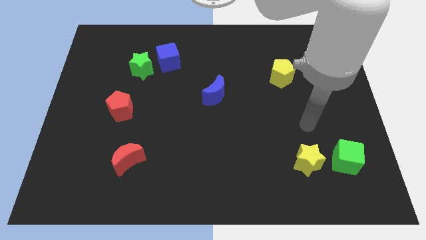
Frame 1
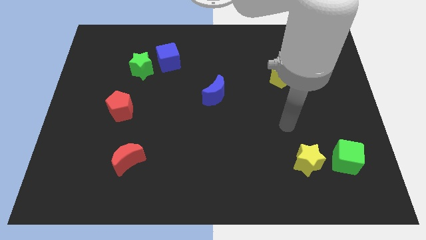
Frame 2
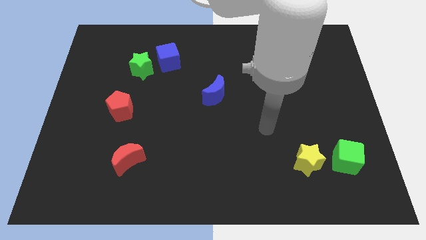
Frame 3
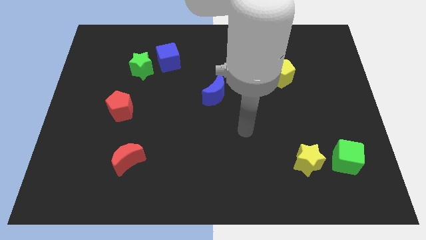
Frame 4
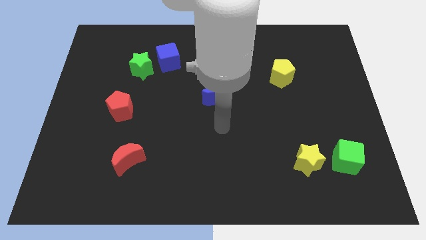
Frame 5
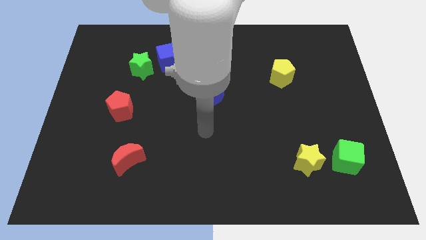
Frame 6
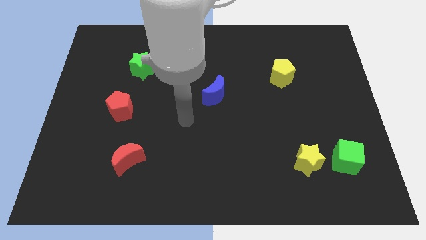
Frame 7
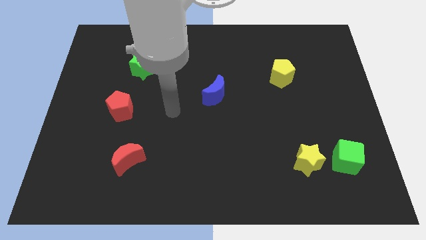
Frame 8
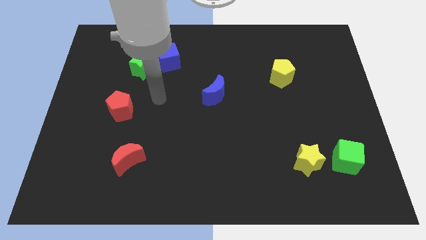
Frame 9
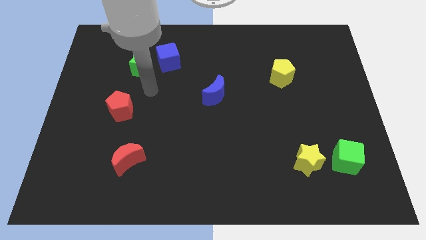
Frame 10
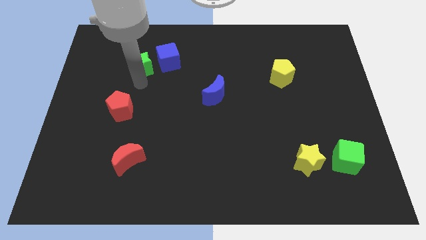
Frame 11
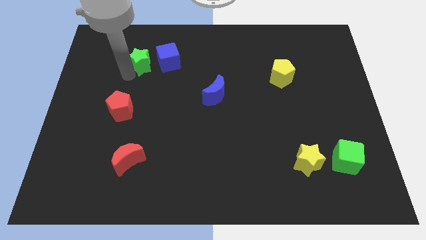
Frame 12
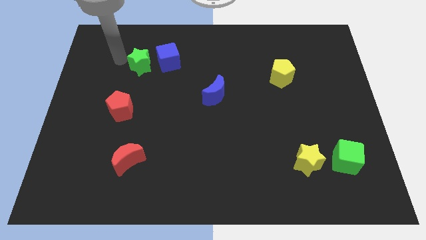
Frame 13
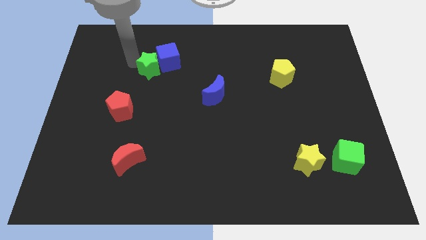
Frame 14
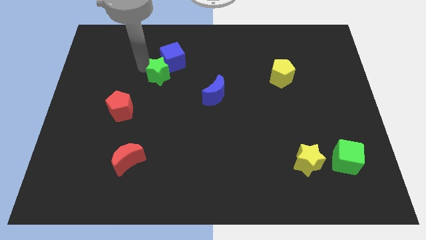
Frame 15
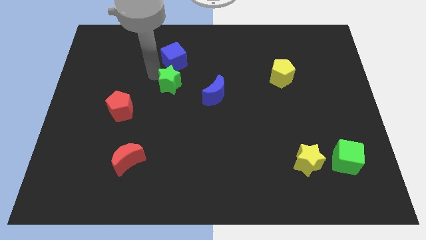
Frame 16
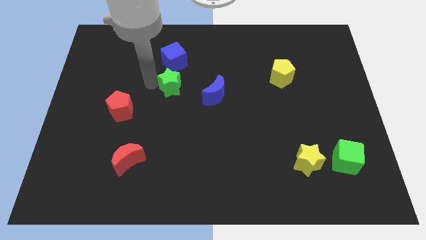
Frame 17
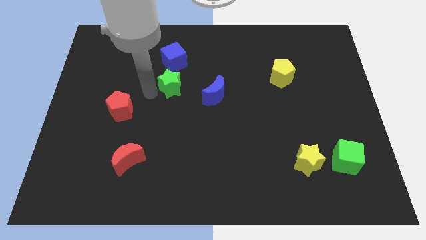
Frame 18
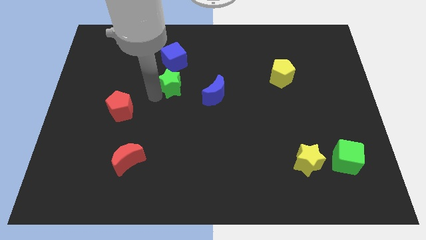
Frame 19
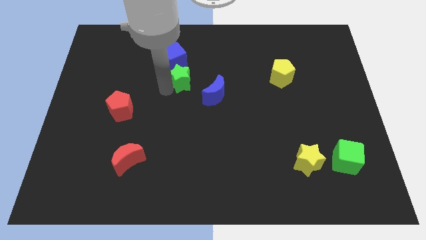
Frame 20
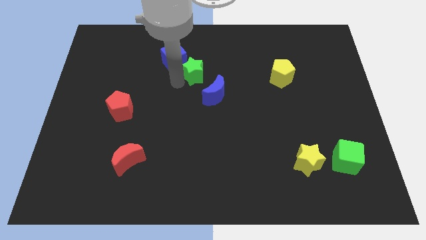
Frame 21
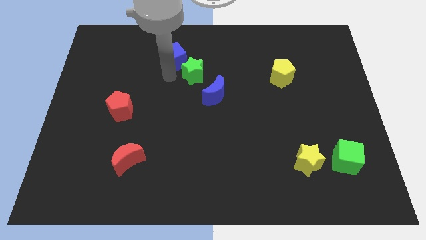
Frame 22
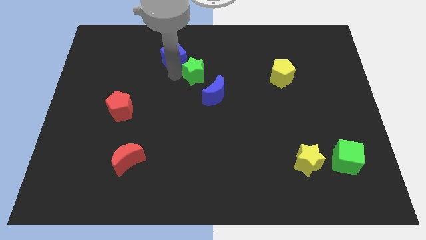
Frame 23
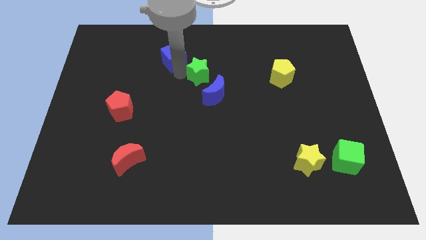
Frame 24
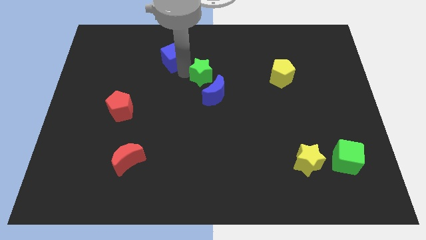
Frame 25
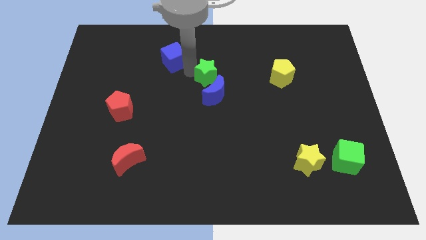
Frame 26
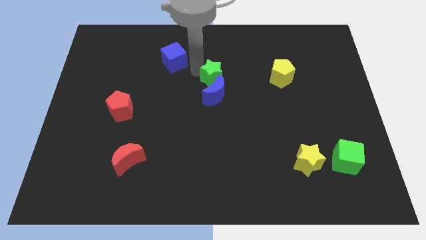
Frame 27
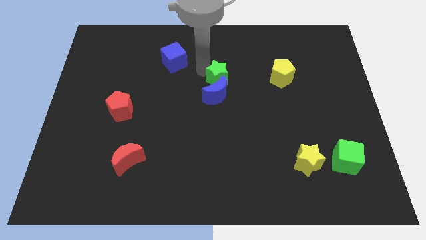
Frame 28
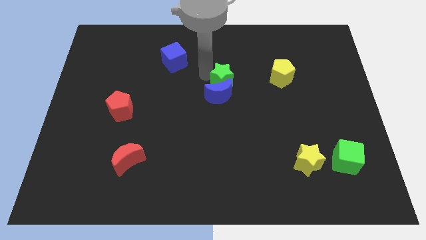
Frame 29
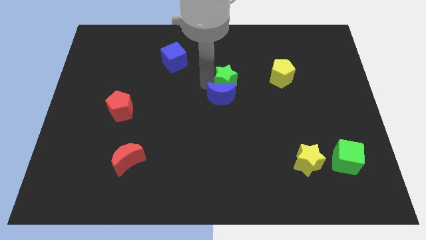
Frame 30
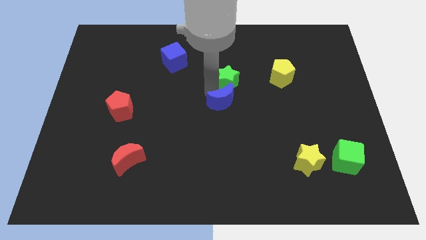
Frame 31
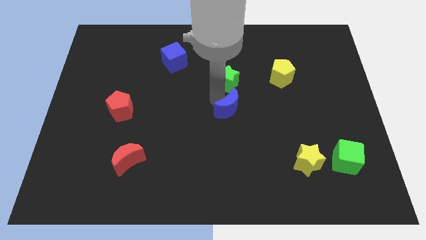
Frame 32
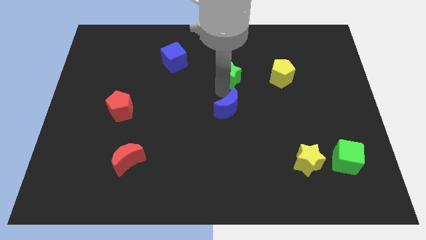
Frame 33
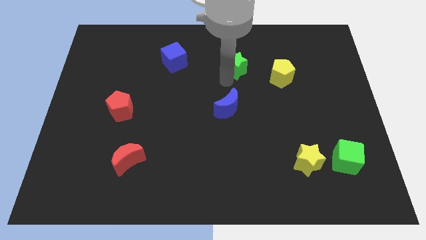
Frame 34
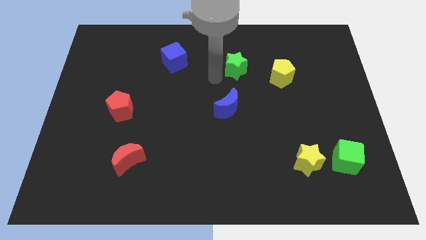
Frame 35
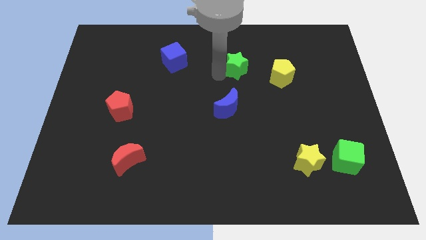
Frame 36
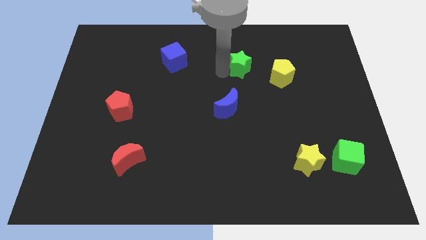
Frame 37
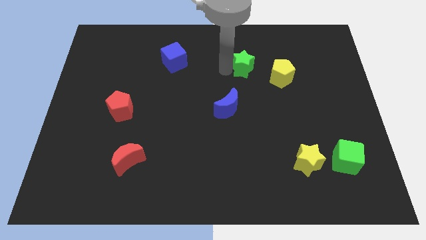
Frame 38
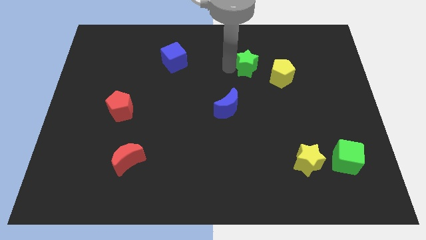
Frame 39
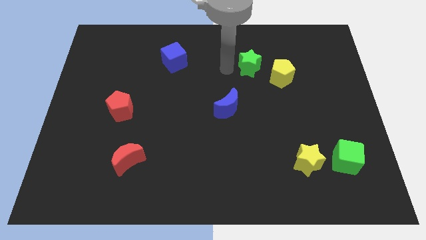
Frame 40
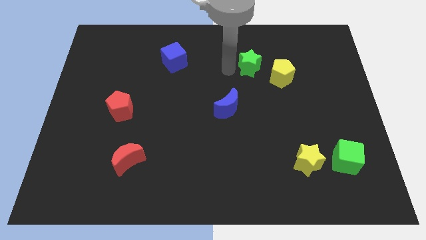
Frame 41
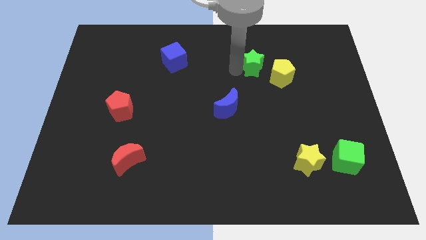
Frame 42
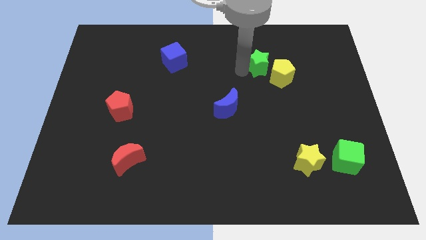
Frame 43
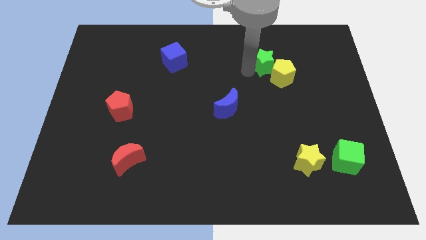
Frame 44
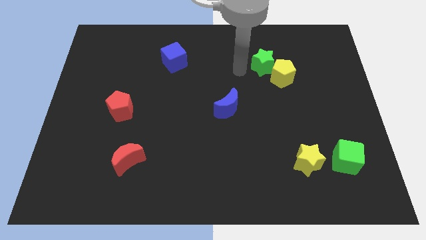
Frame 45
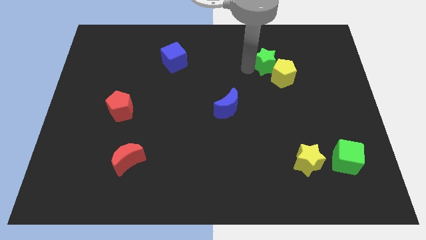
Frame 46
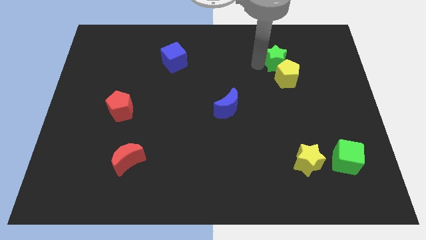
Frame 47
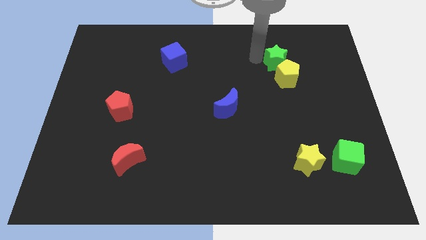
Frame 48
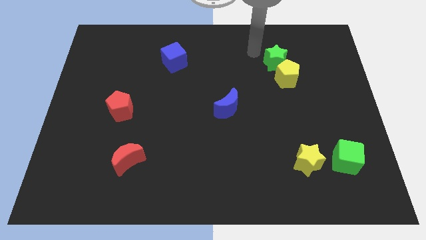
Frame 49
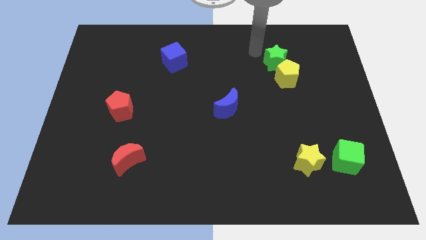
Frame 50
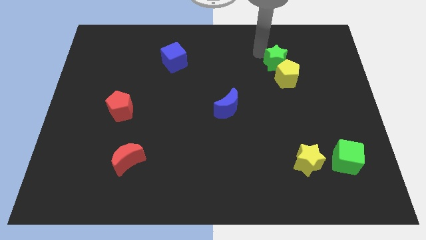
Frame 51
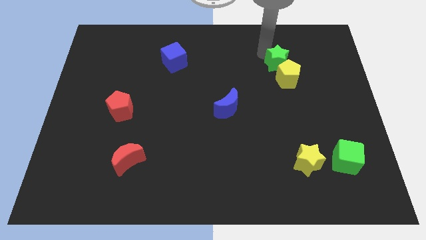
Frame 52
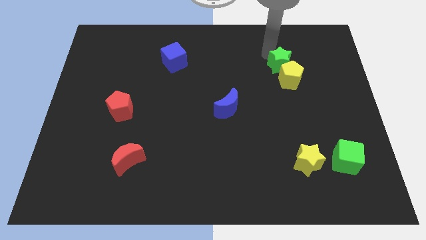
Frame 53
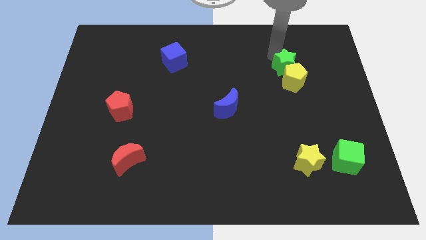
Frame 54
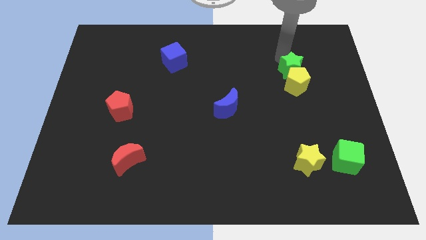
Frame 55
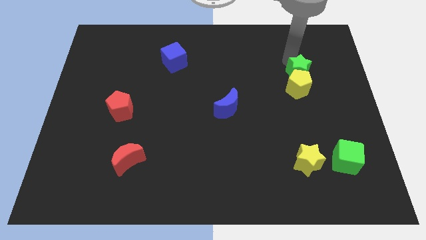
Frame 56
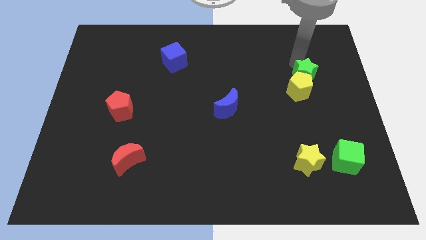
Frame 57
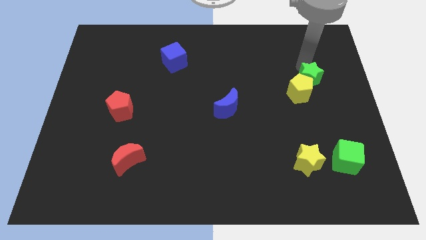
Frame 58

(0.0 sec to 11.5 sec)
push the green star right of the yellow pentagon
